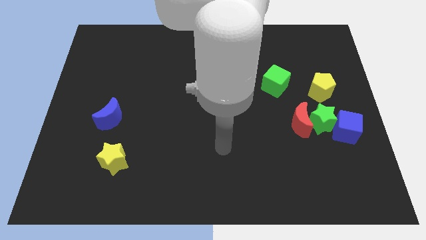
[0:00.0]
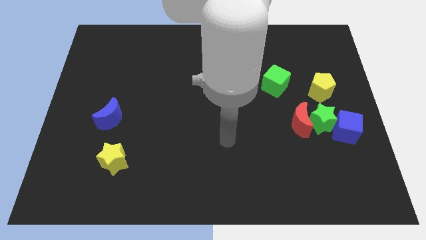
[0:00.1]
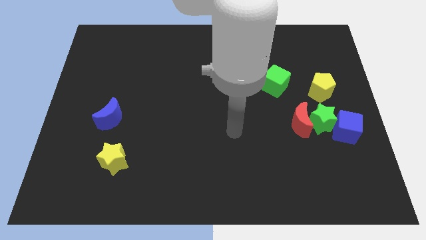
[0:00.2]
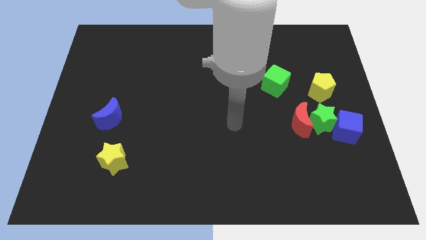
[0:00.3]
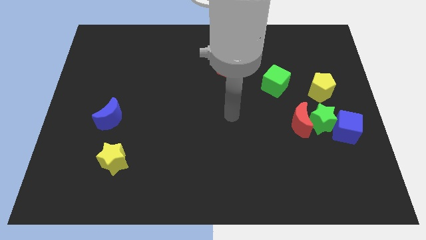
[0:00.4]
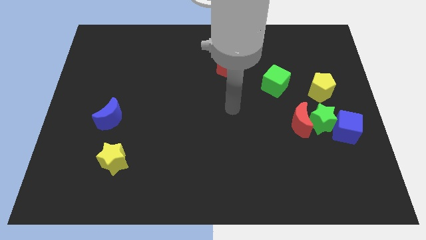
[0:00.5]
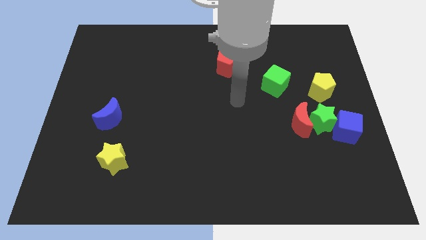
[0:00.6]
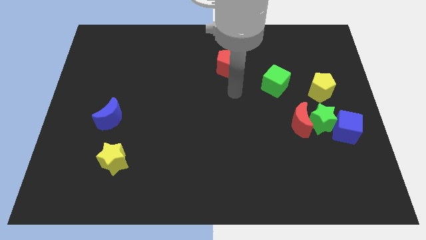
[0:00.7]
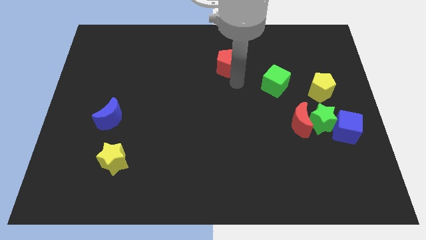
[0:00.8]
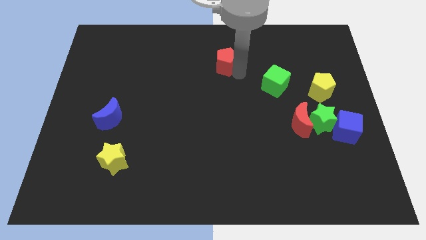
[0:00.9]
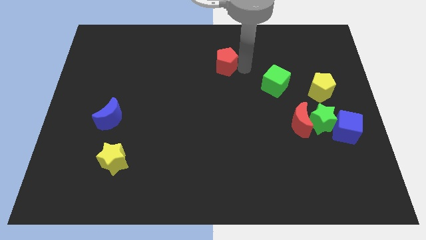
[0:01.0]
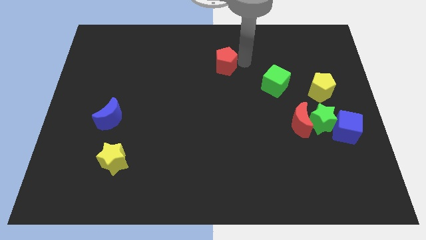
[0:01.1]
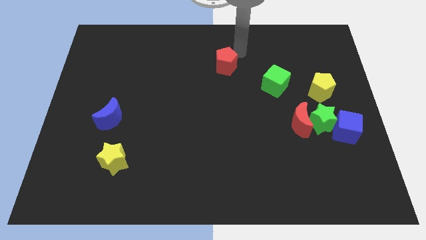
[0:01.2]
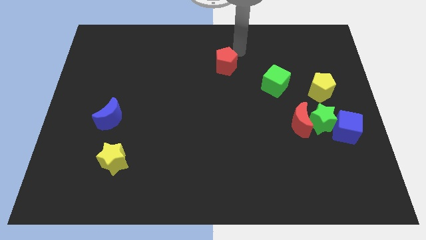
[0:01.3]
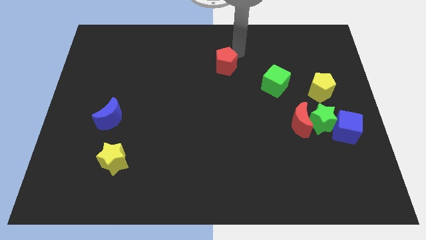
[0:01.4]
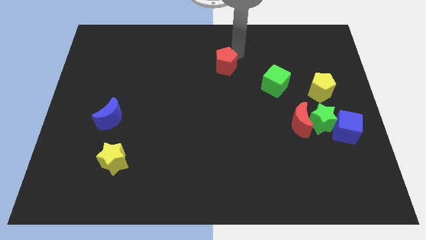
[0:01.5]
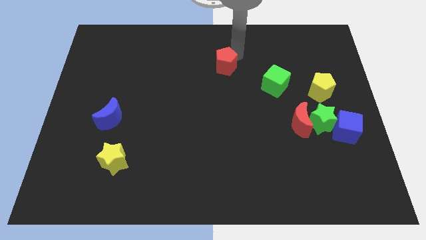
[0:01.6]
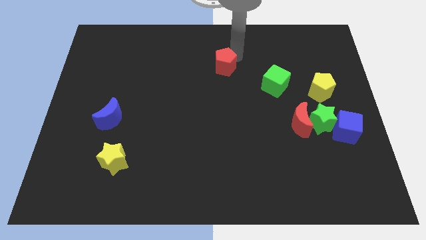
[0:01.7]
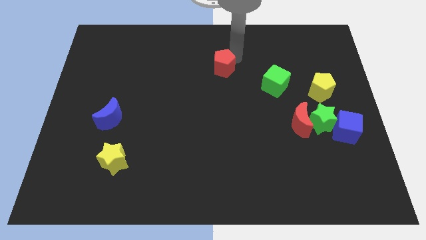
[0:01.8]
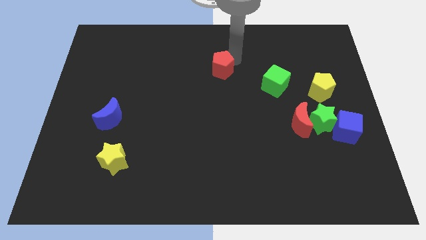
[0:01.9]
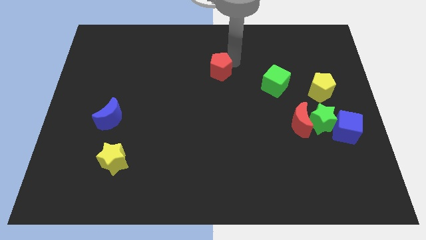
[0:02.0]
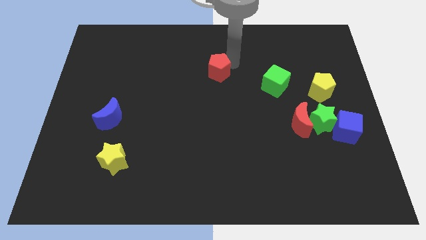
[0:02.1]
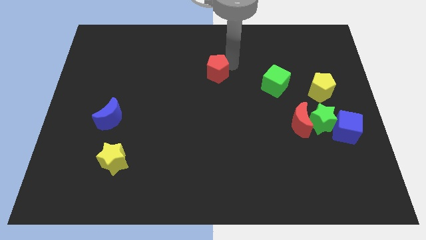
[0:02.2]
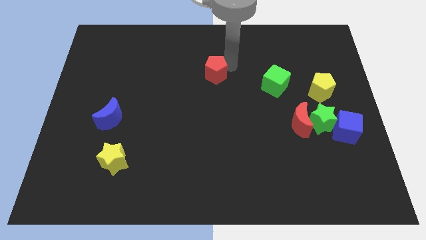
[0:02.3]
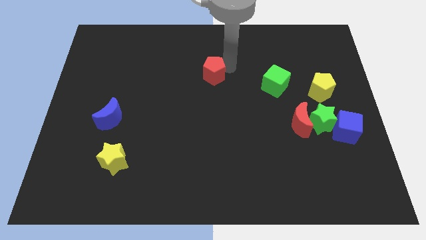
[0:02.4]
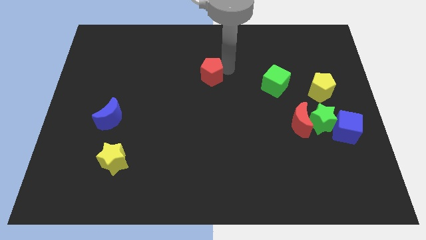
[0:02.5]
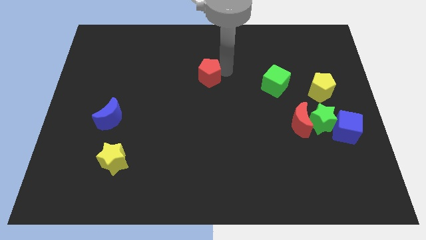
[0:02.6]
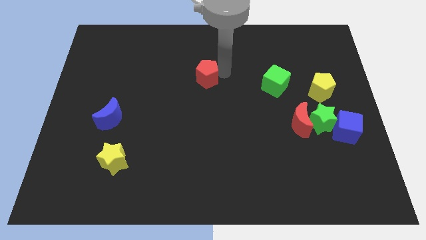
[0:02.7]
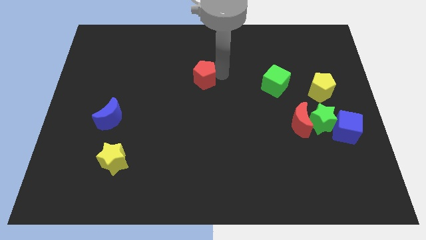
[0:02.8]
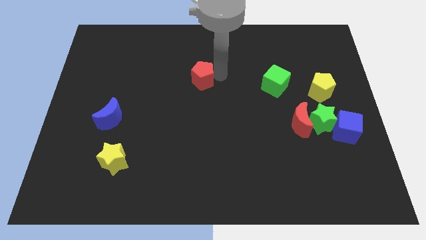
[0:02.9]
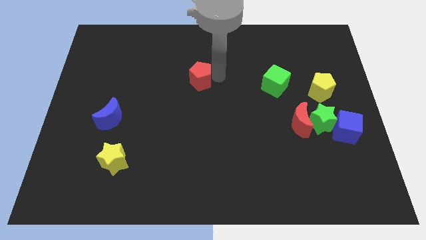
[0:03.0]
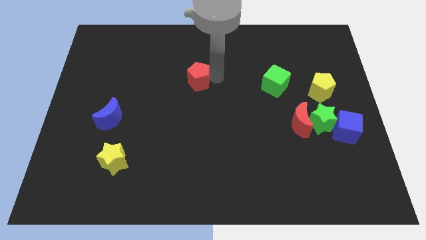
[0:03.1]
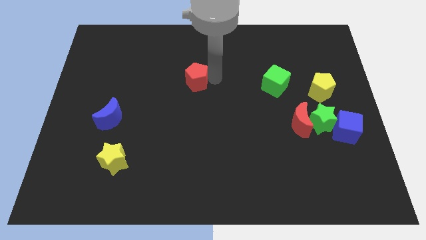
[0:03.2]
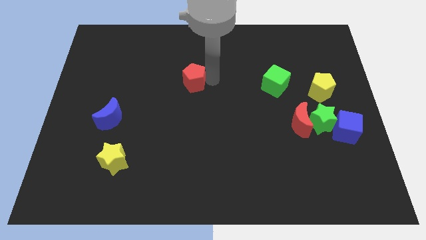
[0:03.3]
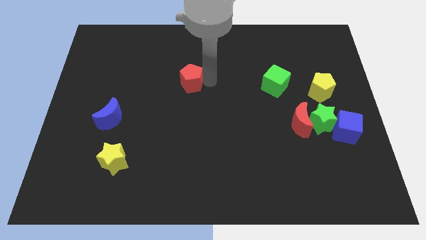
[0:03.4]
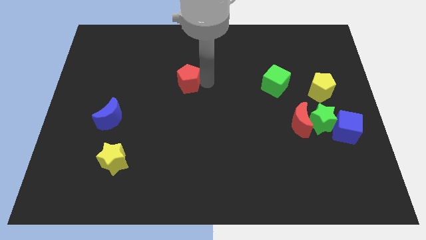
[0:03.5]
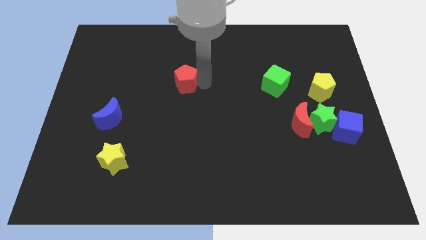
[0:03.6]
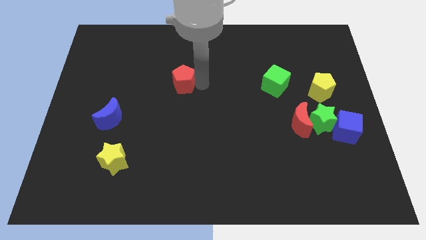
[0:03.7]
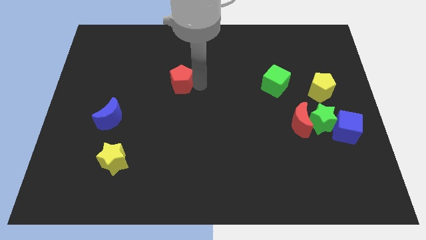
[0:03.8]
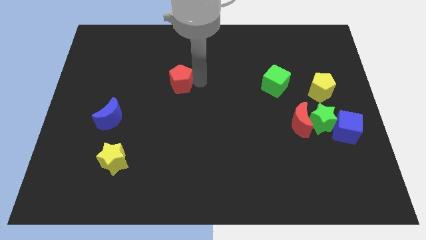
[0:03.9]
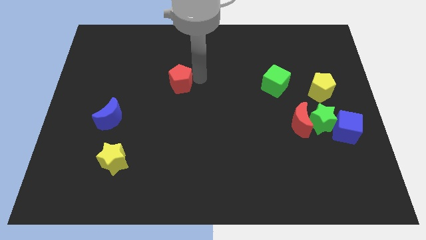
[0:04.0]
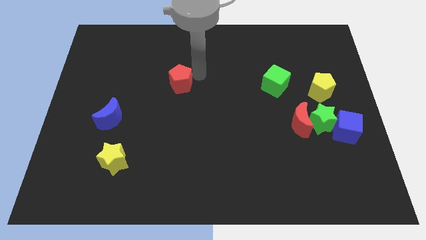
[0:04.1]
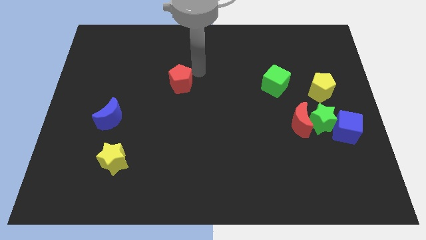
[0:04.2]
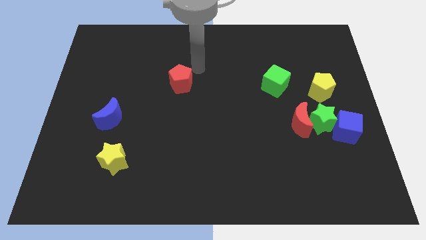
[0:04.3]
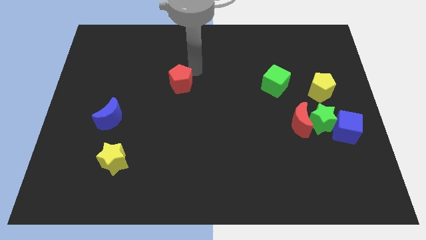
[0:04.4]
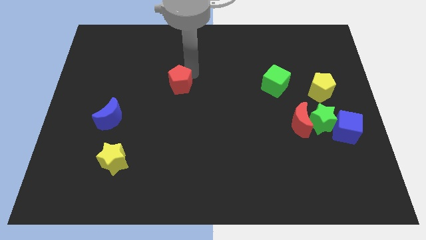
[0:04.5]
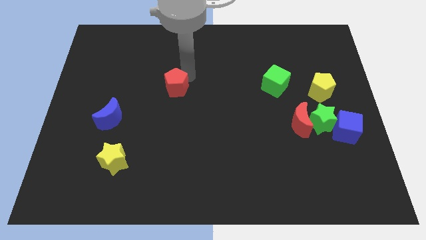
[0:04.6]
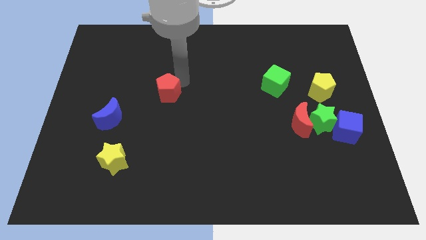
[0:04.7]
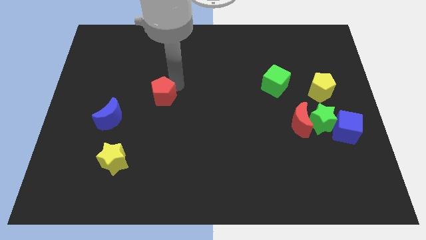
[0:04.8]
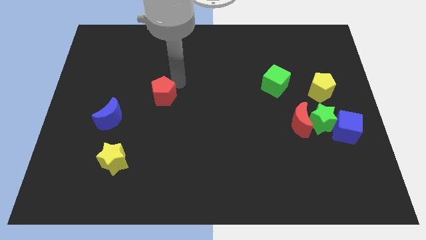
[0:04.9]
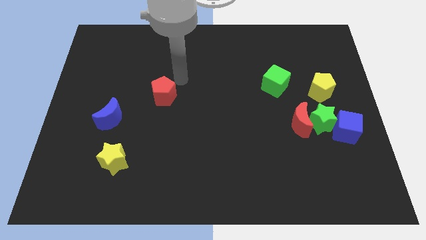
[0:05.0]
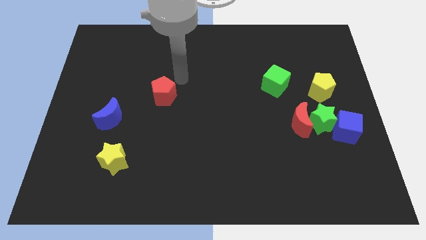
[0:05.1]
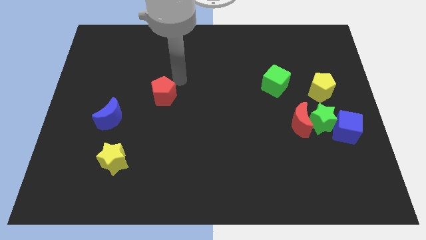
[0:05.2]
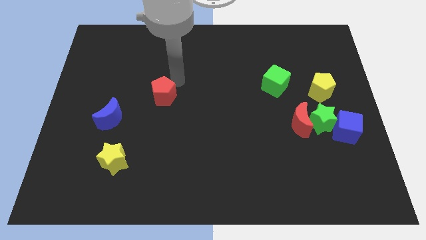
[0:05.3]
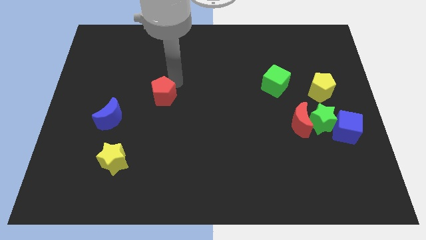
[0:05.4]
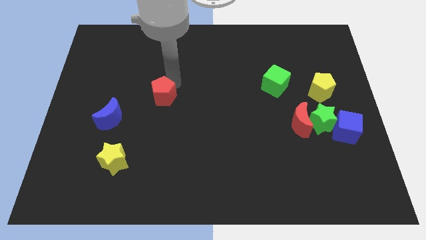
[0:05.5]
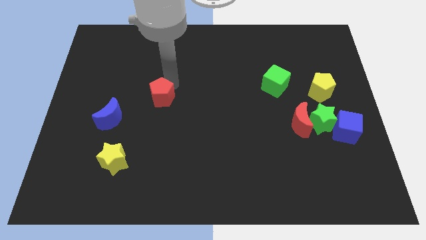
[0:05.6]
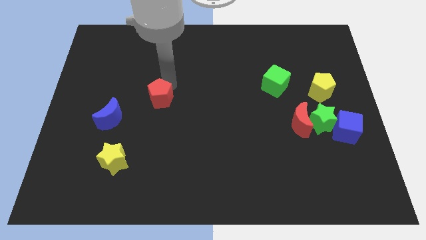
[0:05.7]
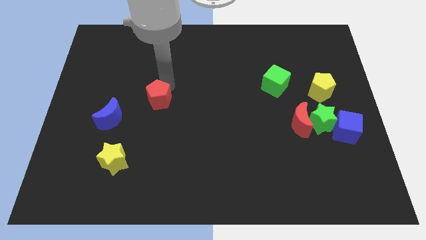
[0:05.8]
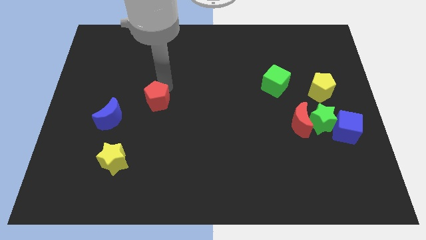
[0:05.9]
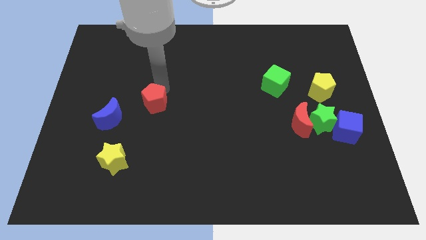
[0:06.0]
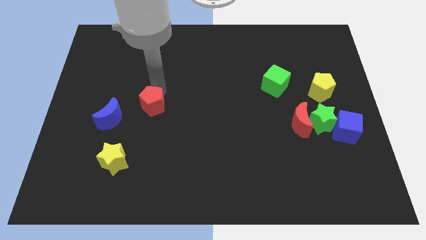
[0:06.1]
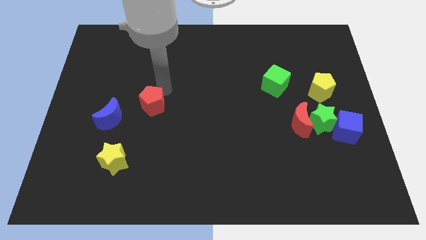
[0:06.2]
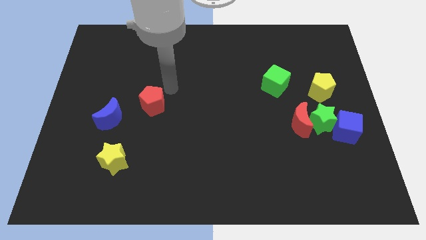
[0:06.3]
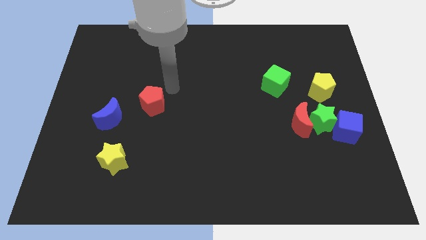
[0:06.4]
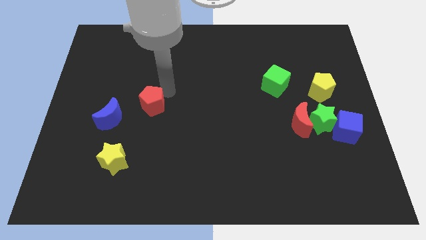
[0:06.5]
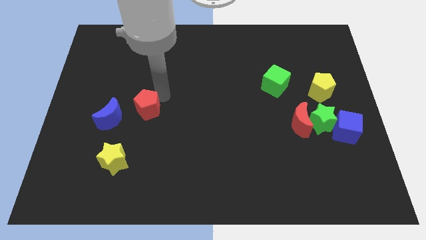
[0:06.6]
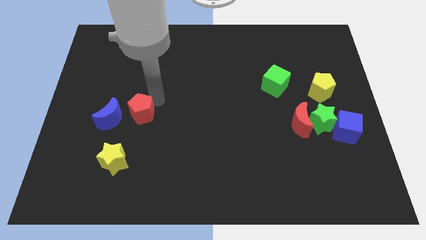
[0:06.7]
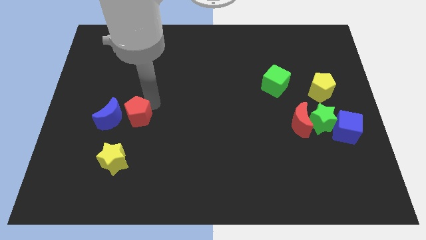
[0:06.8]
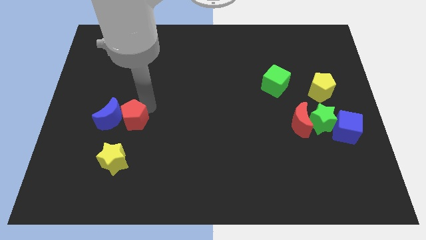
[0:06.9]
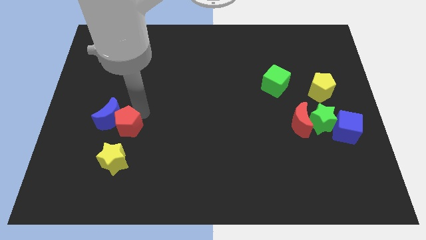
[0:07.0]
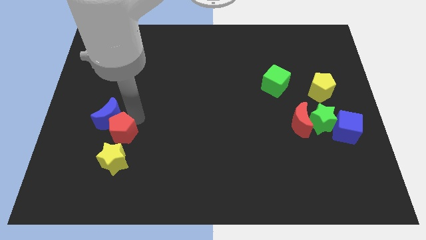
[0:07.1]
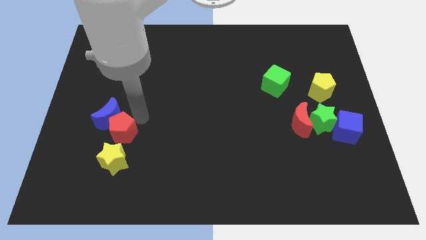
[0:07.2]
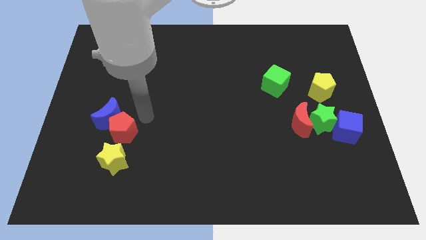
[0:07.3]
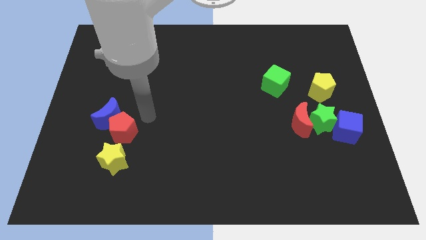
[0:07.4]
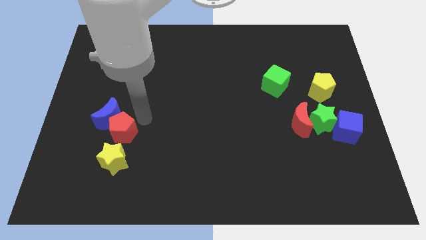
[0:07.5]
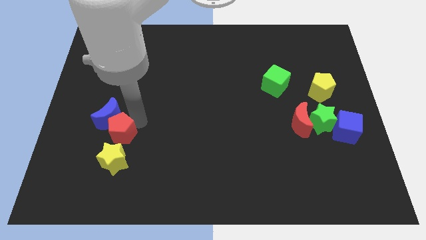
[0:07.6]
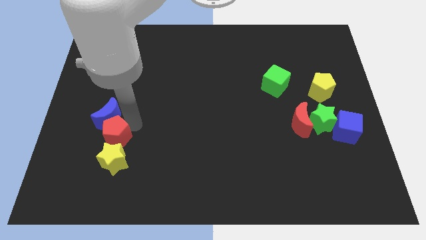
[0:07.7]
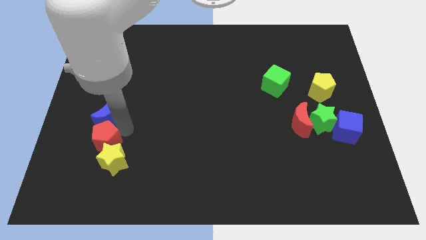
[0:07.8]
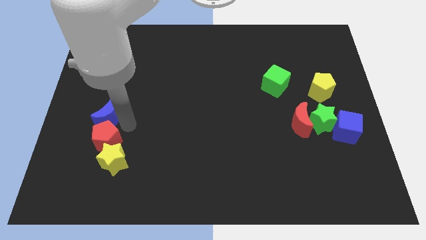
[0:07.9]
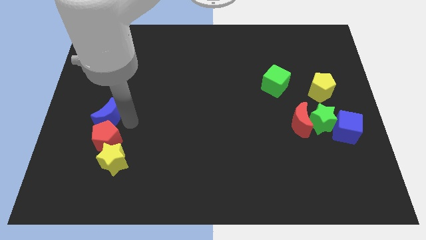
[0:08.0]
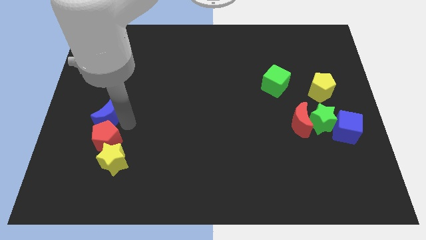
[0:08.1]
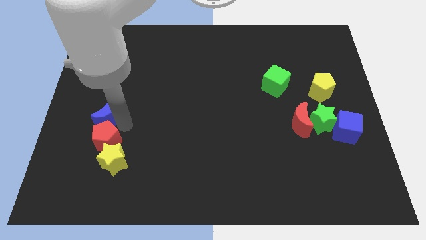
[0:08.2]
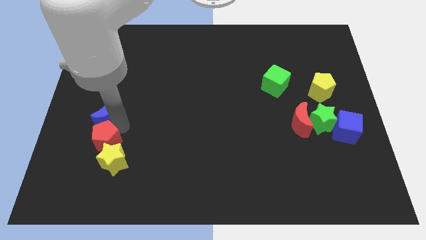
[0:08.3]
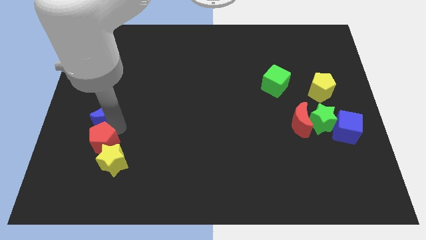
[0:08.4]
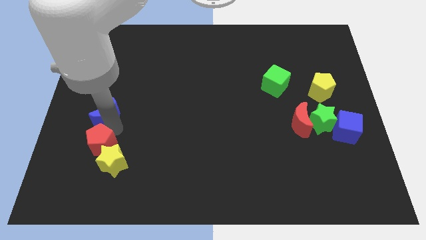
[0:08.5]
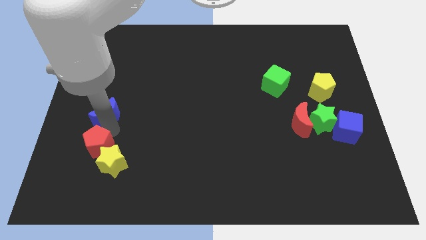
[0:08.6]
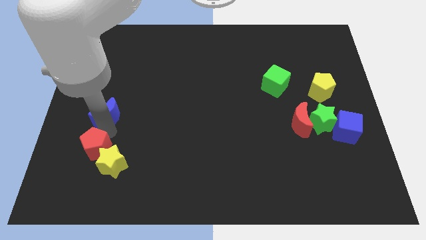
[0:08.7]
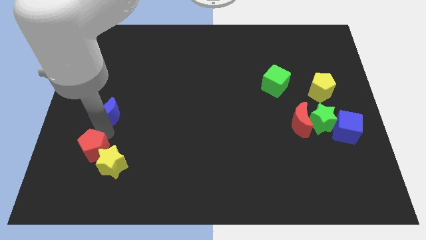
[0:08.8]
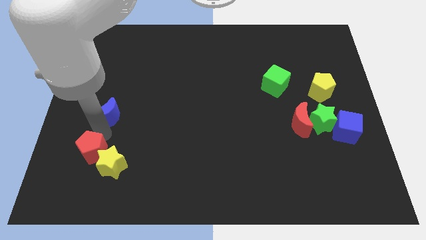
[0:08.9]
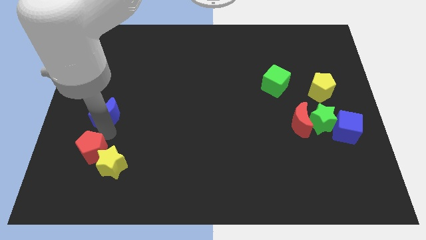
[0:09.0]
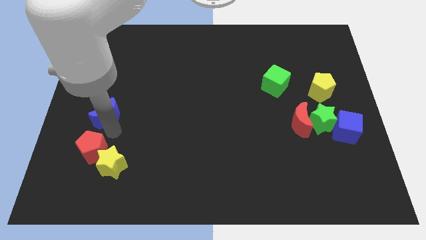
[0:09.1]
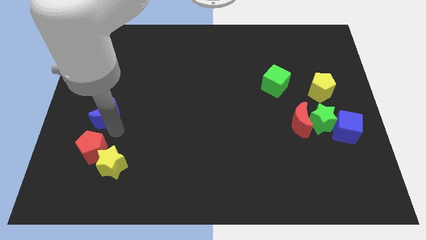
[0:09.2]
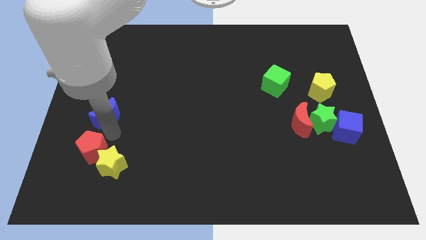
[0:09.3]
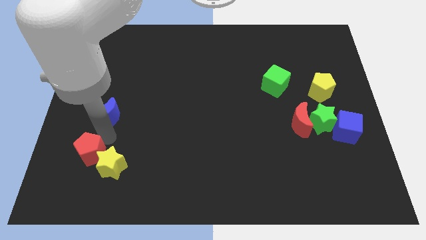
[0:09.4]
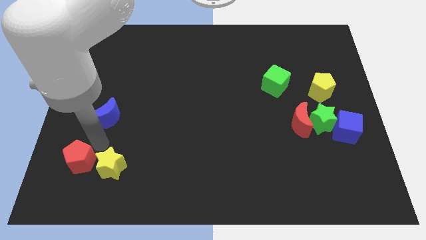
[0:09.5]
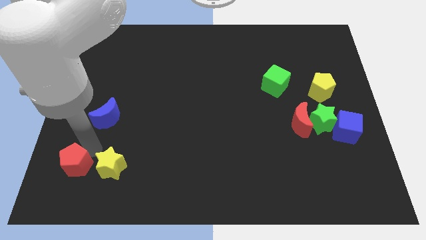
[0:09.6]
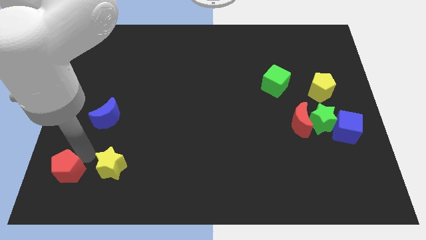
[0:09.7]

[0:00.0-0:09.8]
push the red pentagon to the lower left corner
